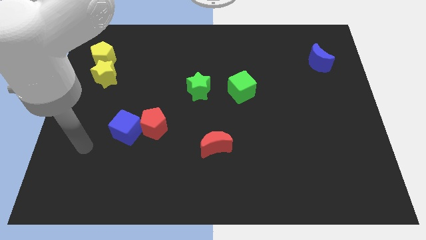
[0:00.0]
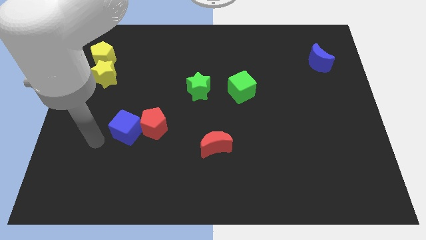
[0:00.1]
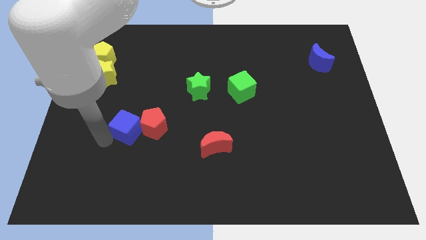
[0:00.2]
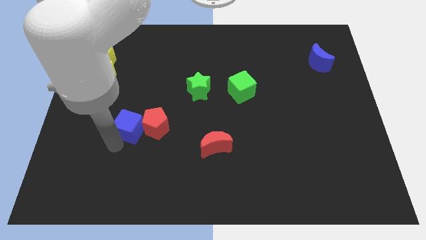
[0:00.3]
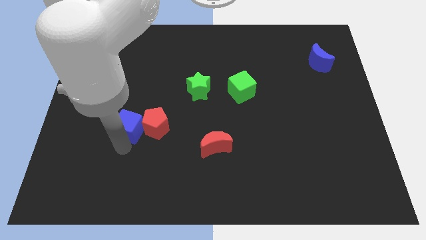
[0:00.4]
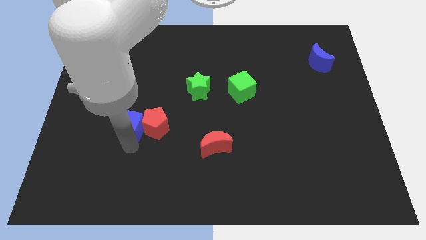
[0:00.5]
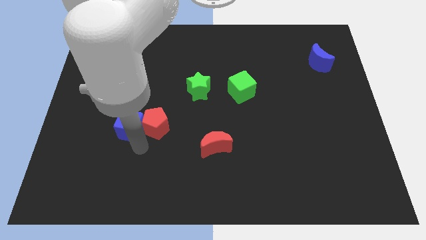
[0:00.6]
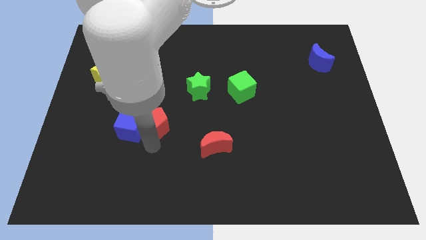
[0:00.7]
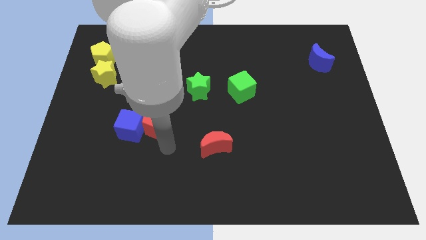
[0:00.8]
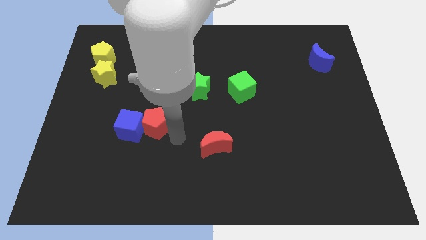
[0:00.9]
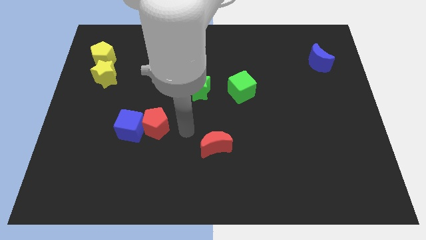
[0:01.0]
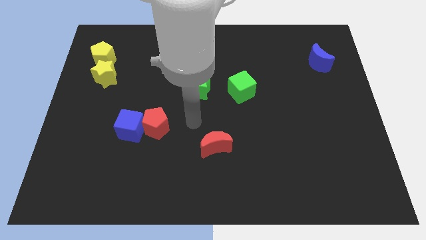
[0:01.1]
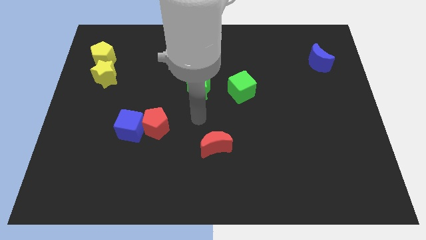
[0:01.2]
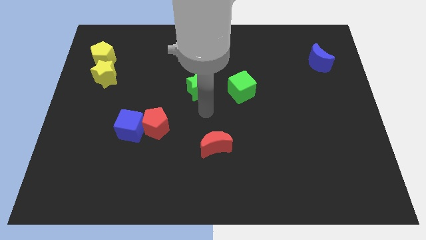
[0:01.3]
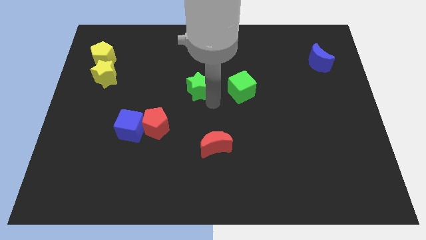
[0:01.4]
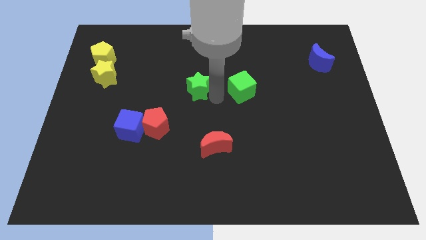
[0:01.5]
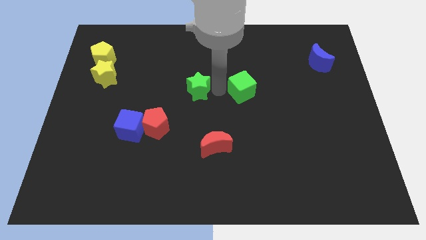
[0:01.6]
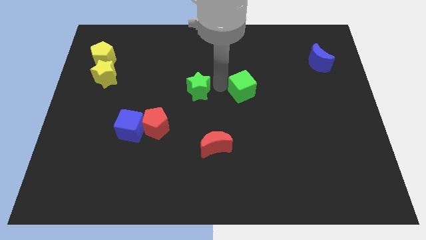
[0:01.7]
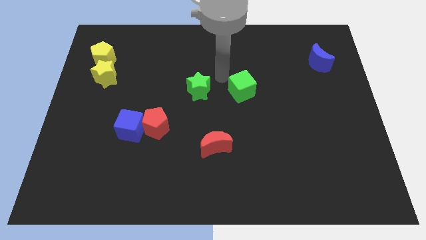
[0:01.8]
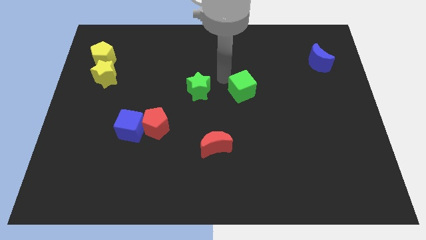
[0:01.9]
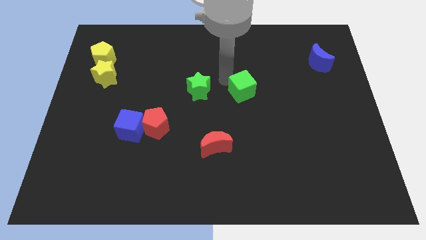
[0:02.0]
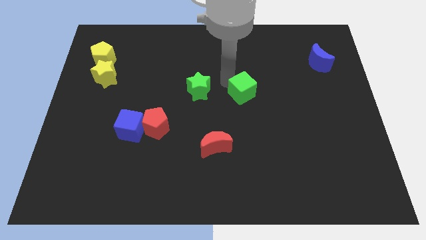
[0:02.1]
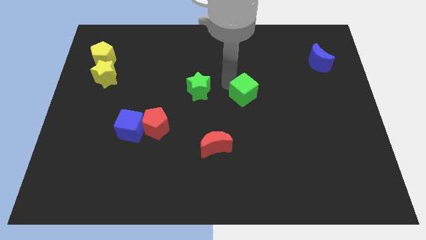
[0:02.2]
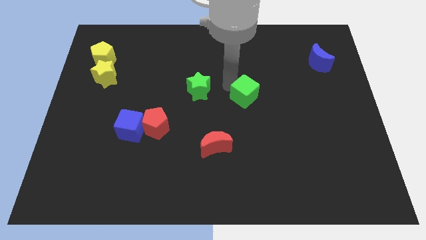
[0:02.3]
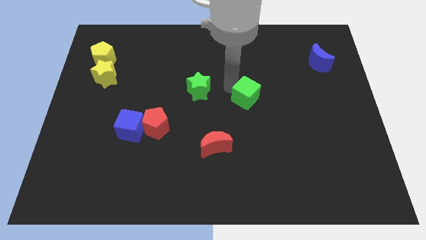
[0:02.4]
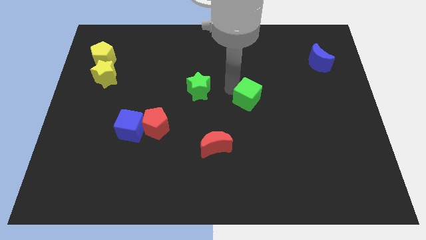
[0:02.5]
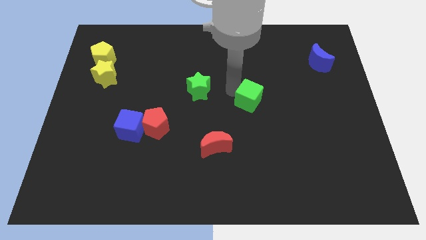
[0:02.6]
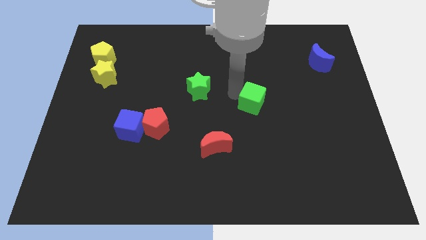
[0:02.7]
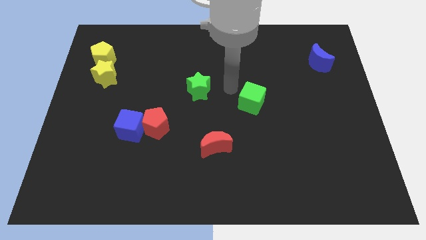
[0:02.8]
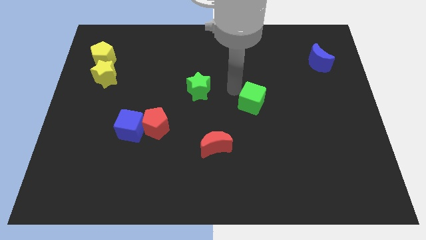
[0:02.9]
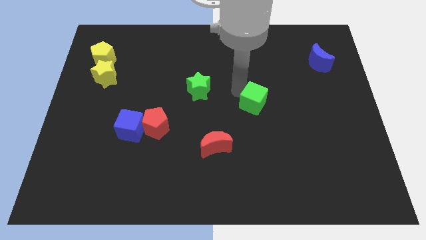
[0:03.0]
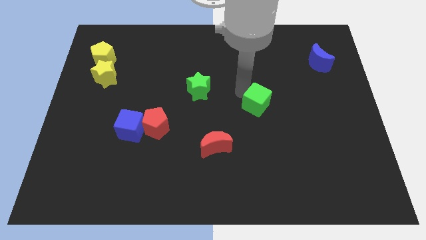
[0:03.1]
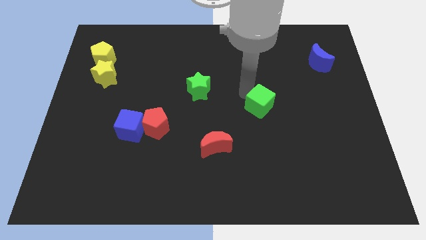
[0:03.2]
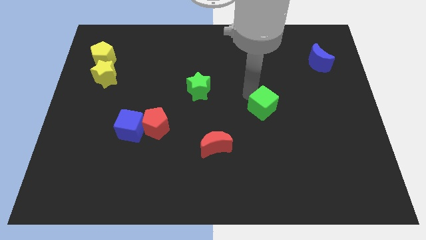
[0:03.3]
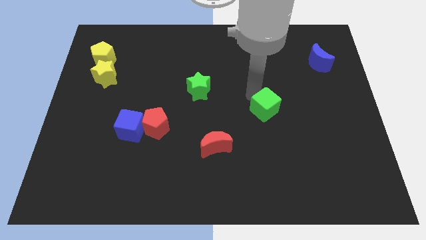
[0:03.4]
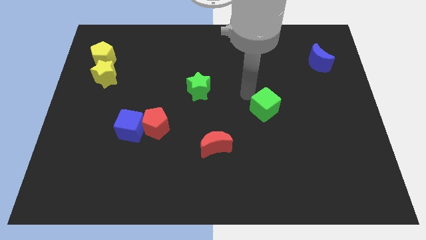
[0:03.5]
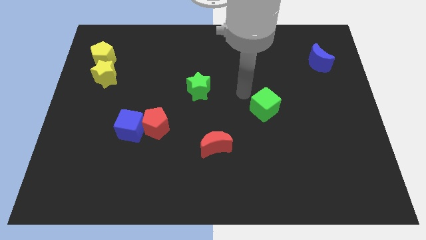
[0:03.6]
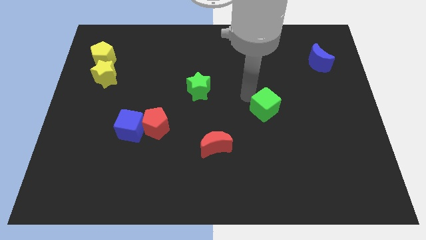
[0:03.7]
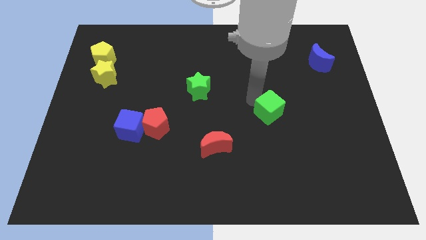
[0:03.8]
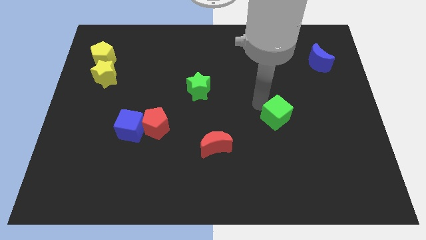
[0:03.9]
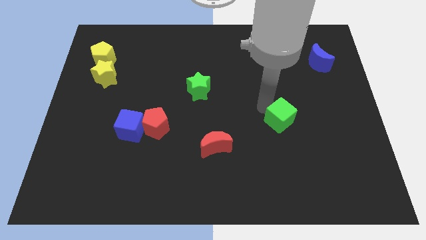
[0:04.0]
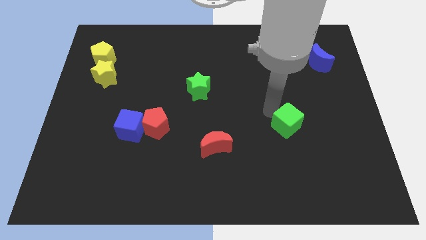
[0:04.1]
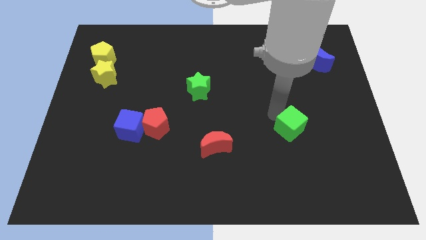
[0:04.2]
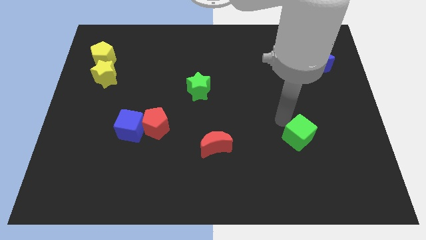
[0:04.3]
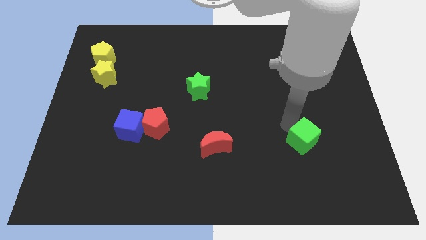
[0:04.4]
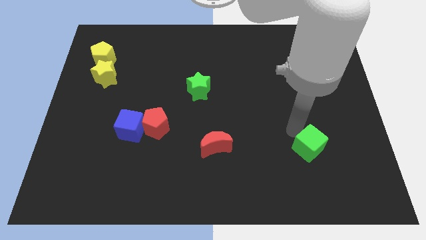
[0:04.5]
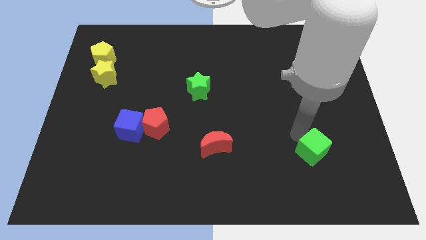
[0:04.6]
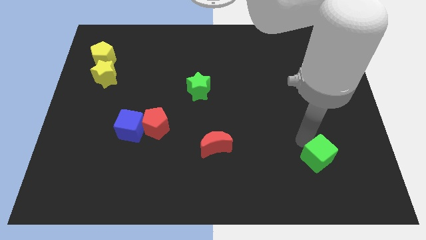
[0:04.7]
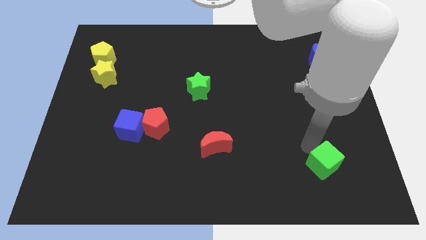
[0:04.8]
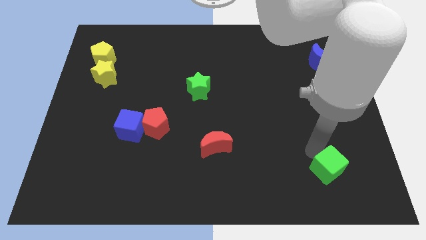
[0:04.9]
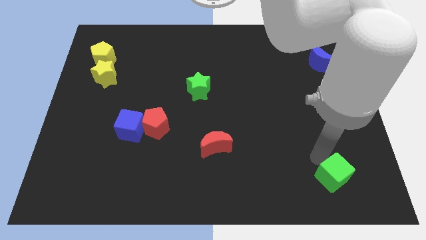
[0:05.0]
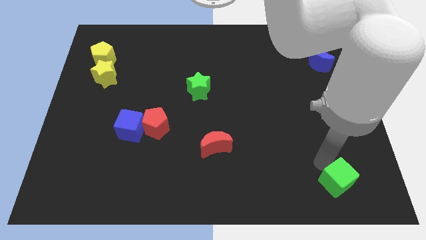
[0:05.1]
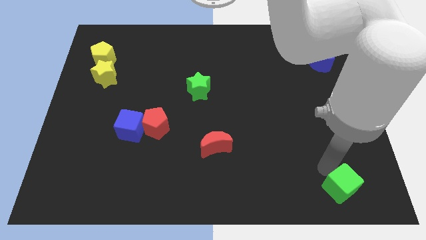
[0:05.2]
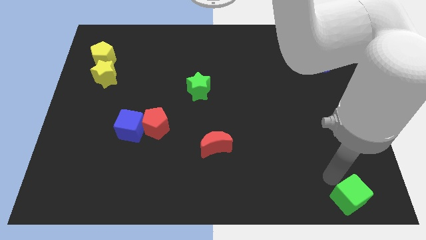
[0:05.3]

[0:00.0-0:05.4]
slide the green cube to the bottom right

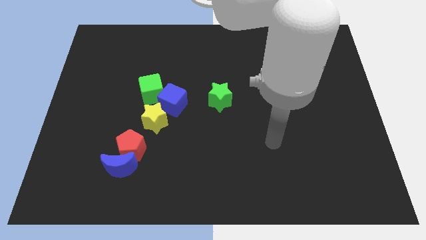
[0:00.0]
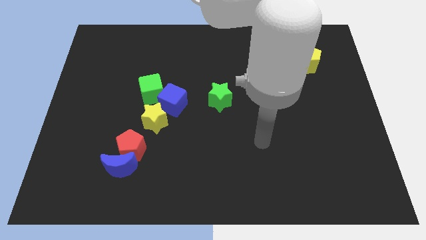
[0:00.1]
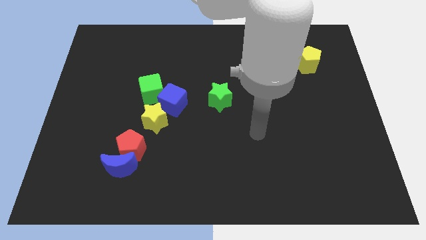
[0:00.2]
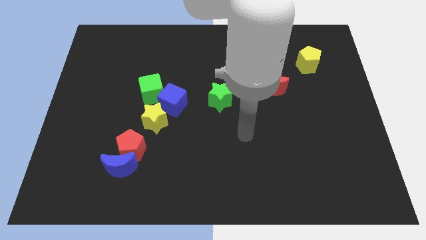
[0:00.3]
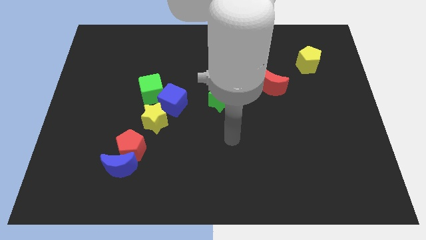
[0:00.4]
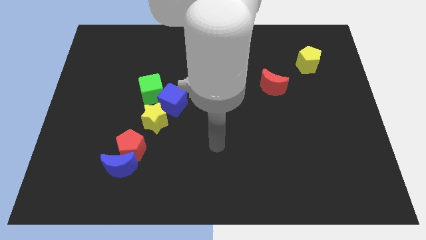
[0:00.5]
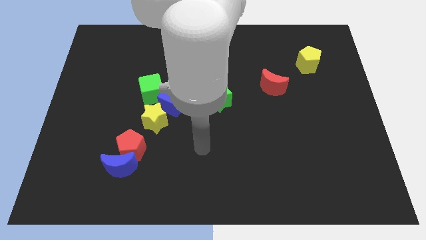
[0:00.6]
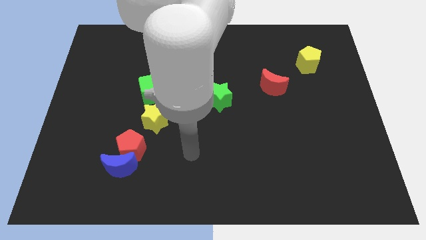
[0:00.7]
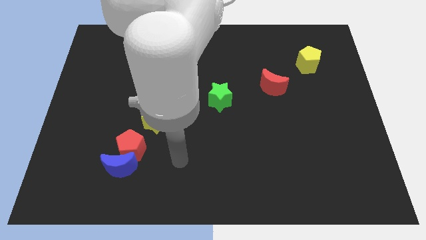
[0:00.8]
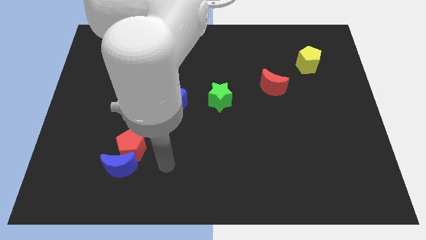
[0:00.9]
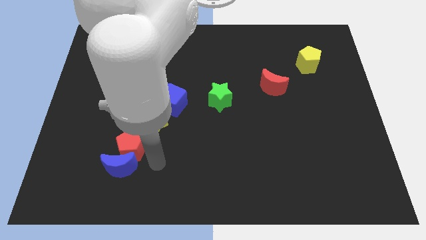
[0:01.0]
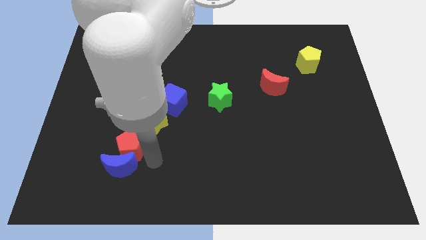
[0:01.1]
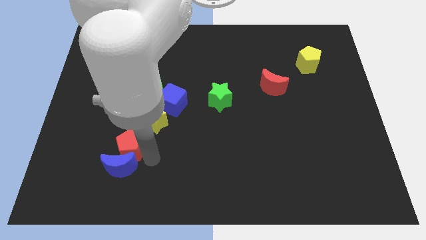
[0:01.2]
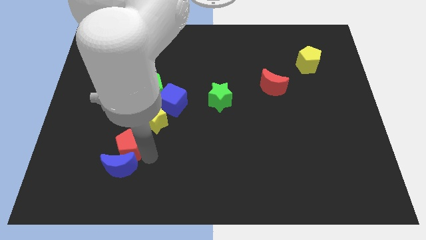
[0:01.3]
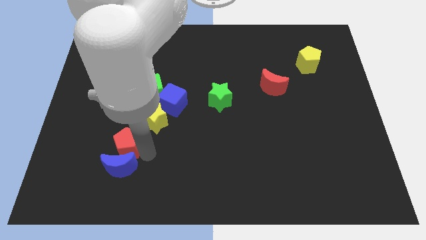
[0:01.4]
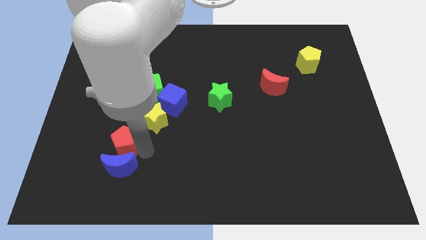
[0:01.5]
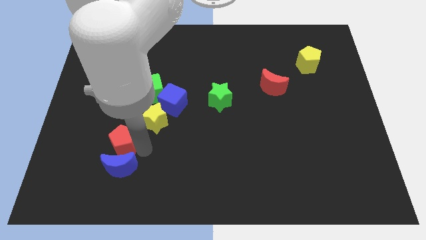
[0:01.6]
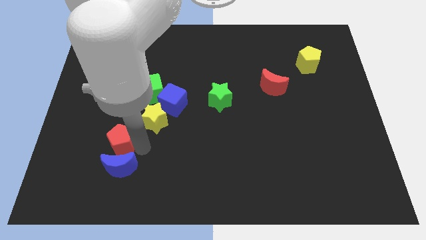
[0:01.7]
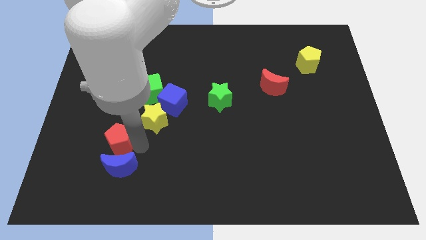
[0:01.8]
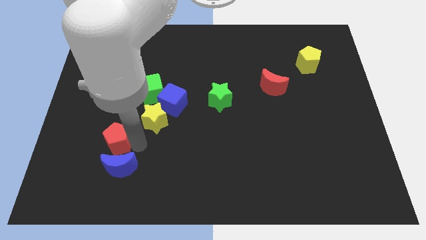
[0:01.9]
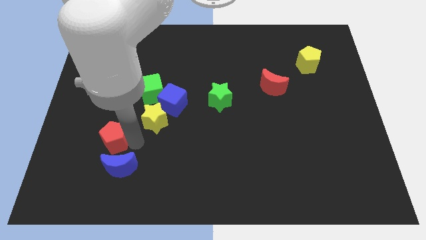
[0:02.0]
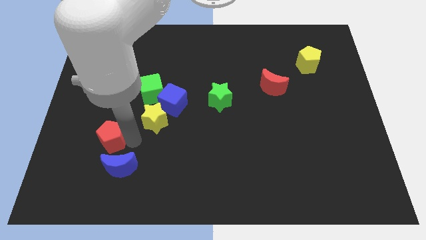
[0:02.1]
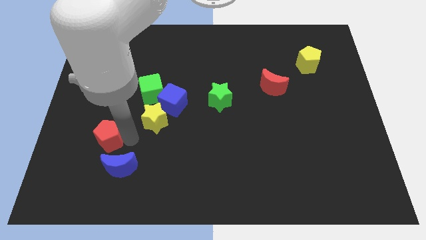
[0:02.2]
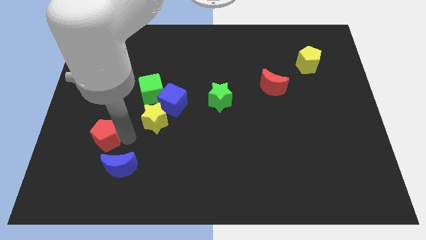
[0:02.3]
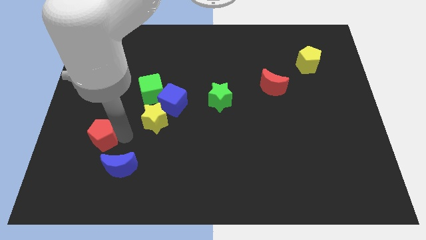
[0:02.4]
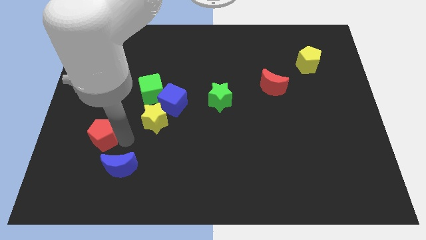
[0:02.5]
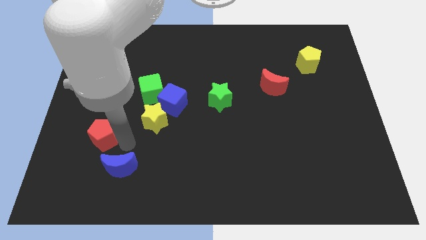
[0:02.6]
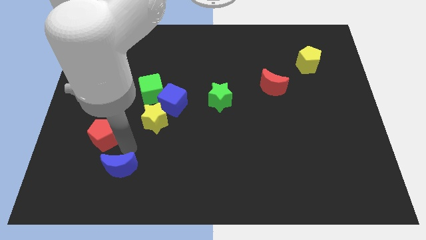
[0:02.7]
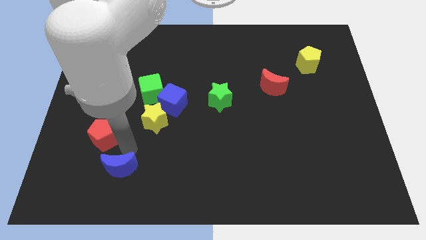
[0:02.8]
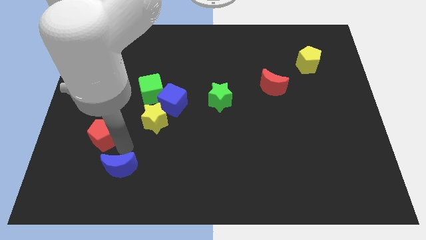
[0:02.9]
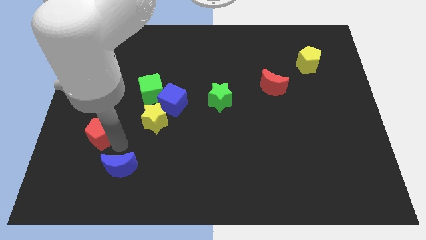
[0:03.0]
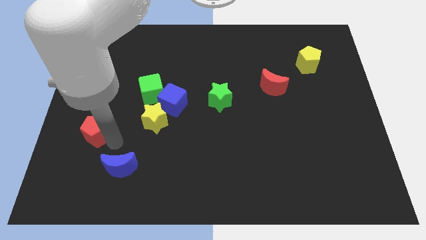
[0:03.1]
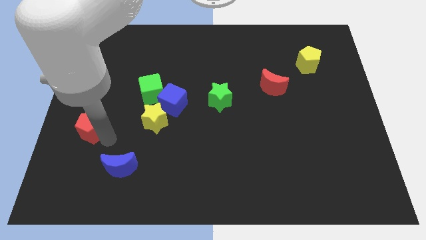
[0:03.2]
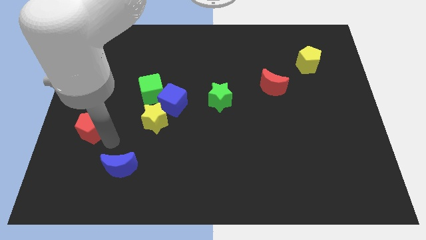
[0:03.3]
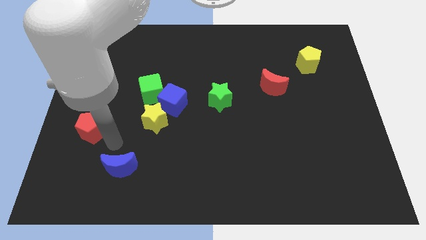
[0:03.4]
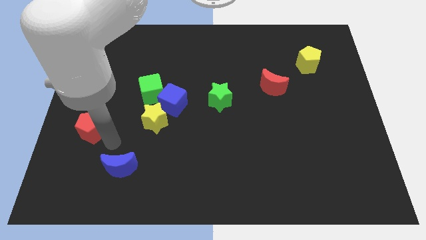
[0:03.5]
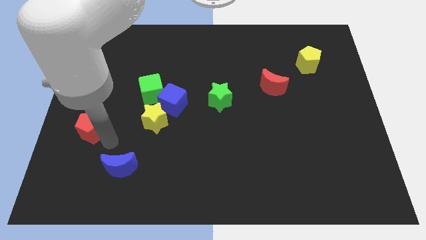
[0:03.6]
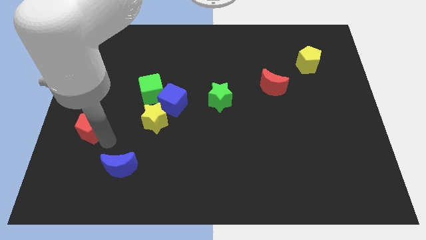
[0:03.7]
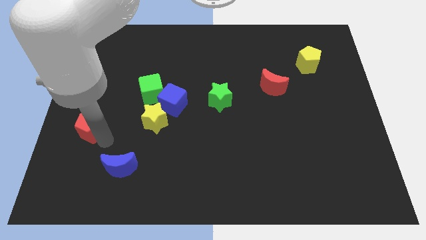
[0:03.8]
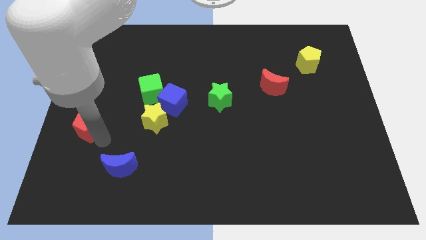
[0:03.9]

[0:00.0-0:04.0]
put the red pentagon to the center left
